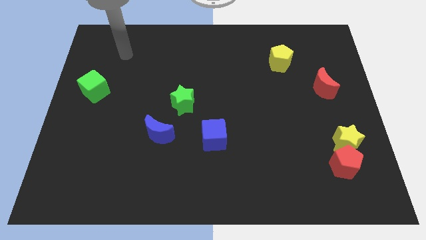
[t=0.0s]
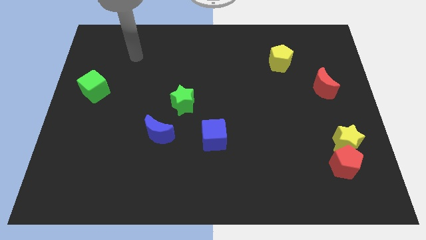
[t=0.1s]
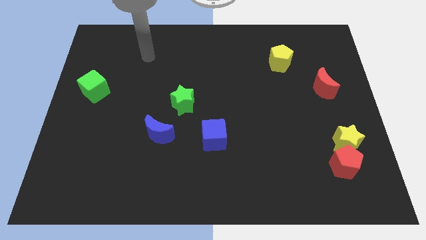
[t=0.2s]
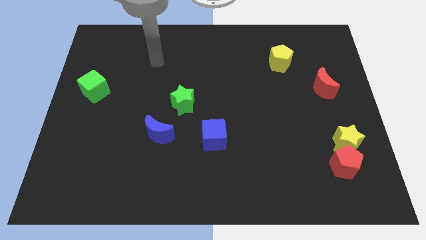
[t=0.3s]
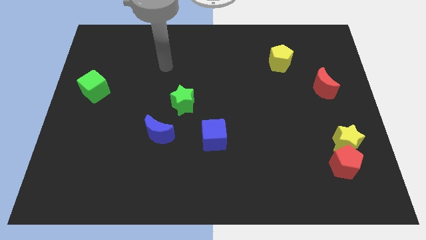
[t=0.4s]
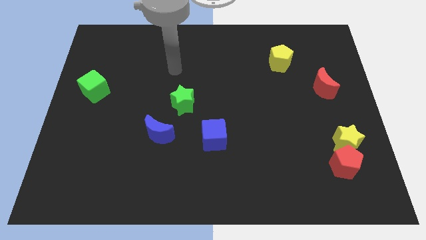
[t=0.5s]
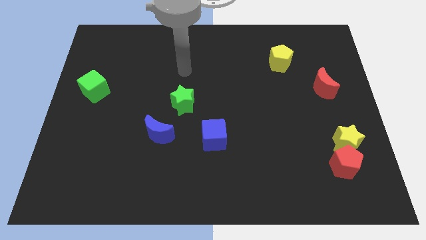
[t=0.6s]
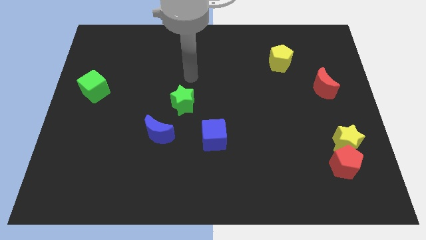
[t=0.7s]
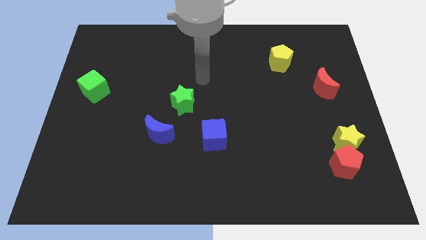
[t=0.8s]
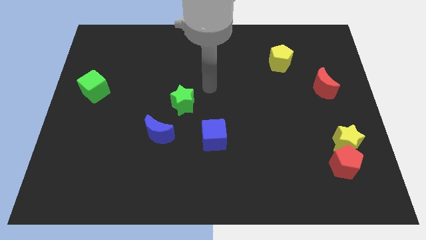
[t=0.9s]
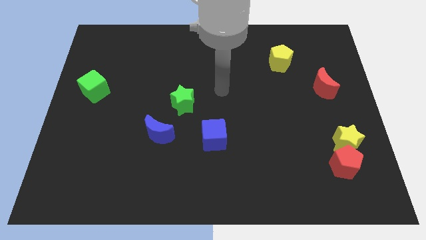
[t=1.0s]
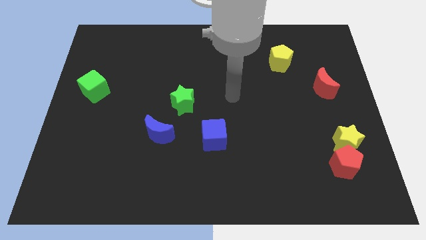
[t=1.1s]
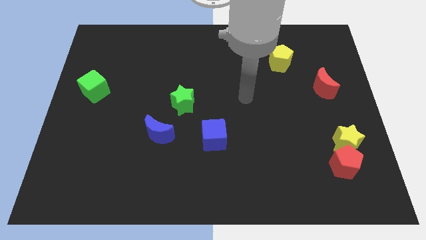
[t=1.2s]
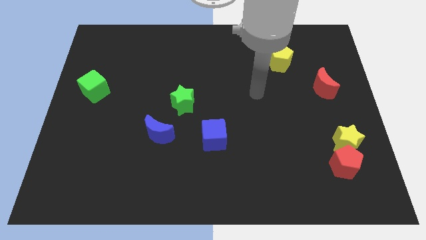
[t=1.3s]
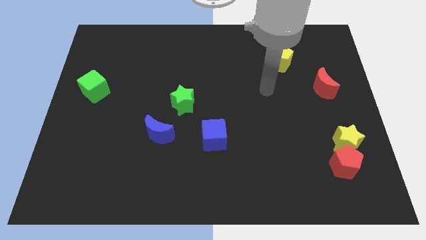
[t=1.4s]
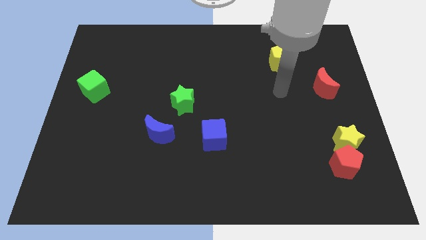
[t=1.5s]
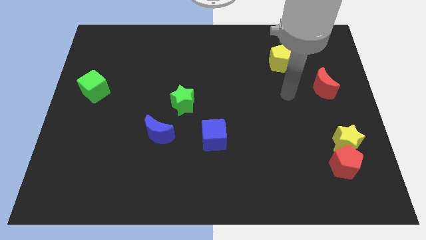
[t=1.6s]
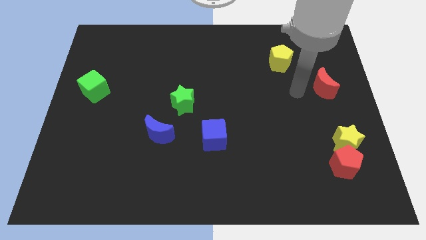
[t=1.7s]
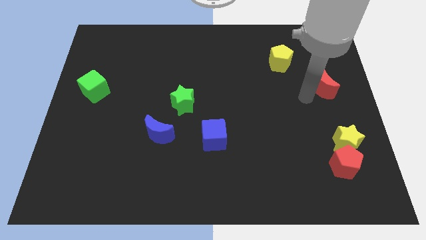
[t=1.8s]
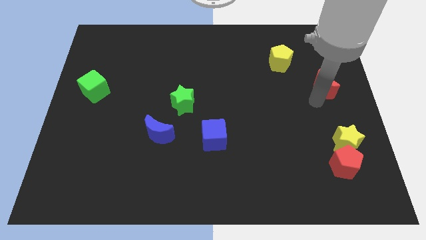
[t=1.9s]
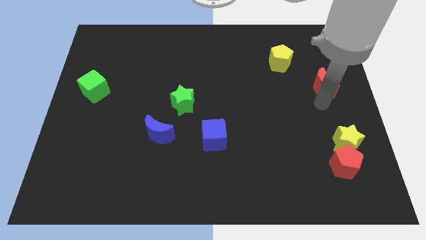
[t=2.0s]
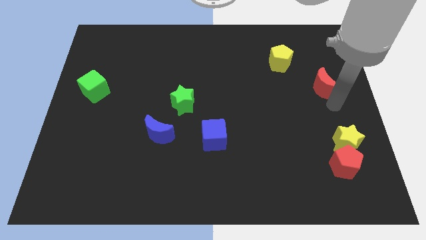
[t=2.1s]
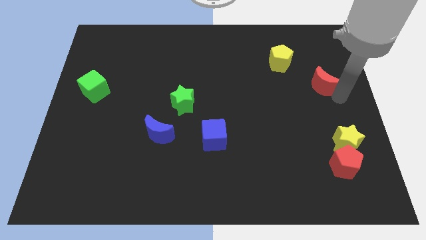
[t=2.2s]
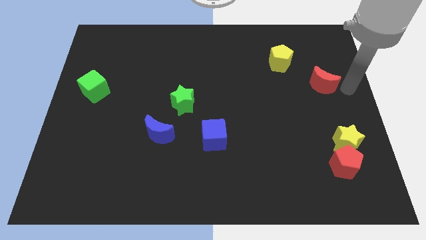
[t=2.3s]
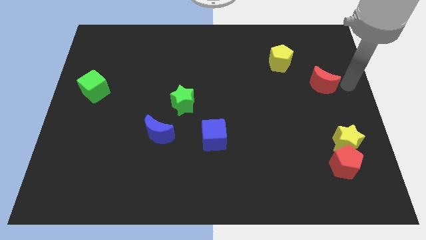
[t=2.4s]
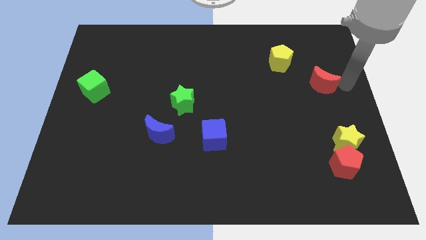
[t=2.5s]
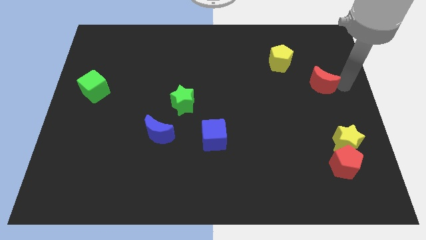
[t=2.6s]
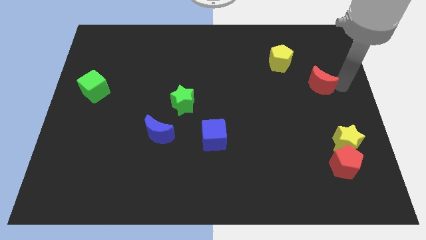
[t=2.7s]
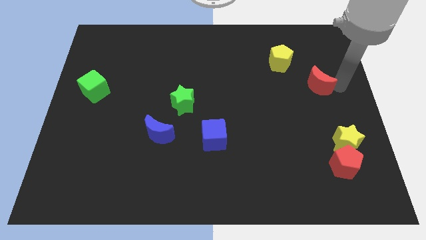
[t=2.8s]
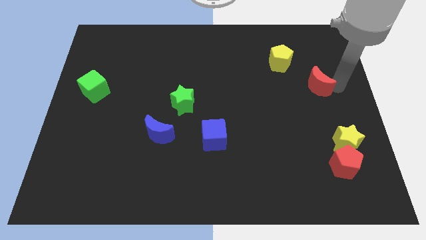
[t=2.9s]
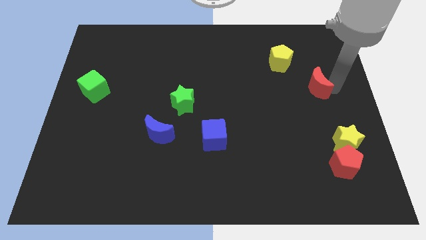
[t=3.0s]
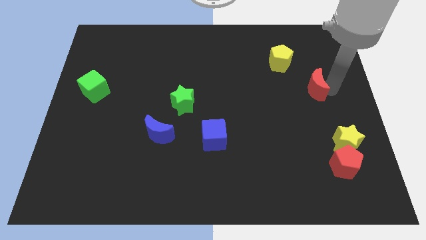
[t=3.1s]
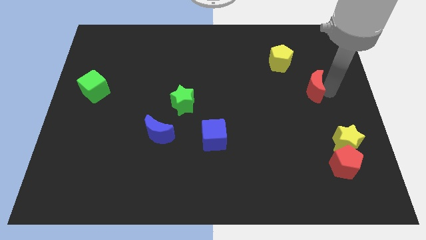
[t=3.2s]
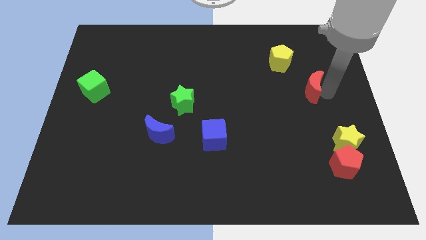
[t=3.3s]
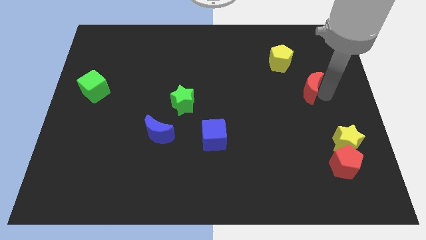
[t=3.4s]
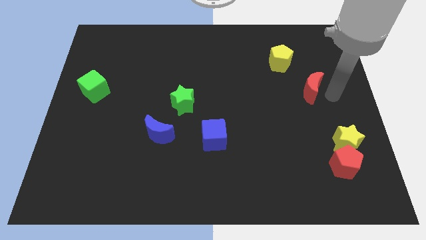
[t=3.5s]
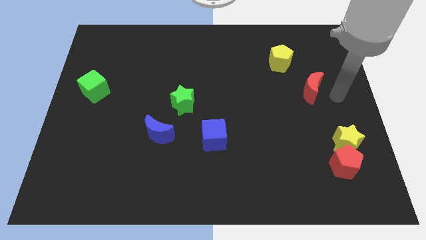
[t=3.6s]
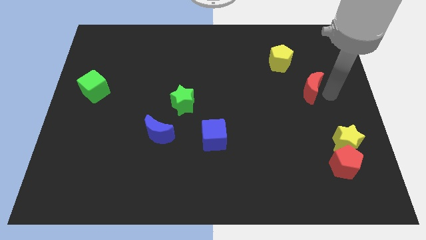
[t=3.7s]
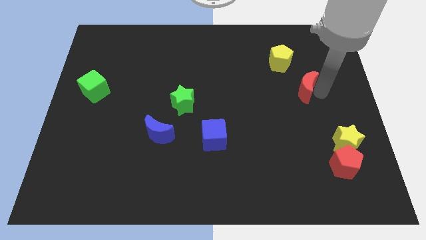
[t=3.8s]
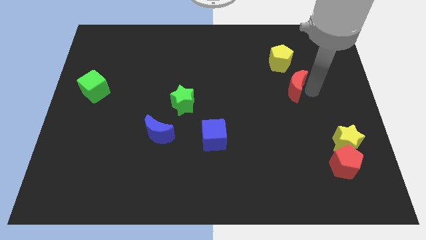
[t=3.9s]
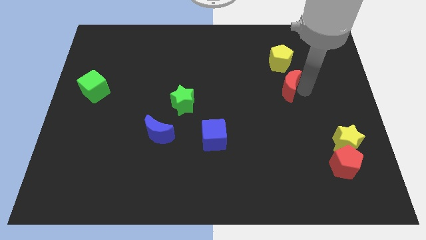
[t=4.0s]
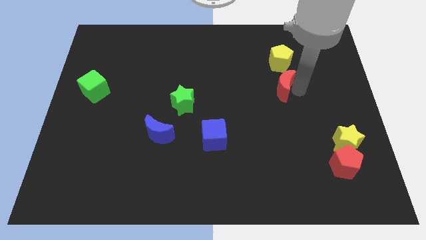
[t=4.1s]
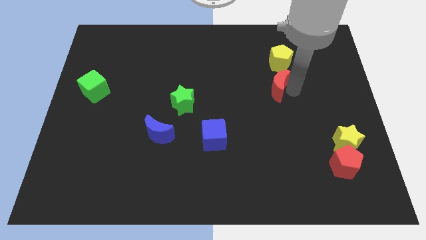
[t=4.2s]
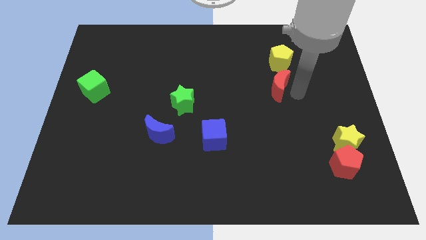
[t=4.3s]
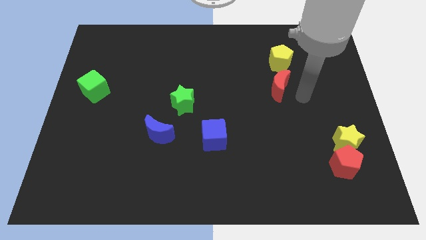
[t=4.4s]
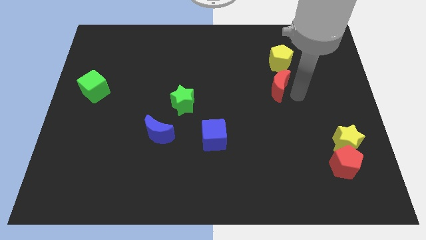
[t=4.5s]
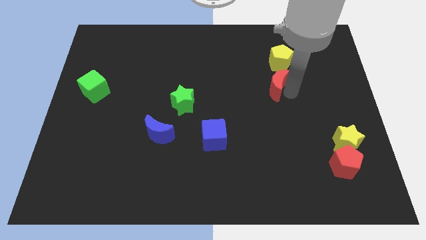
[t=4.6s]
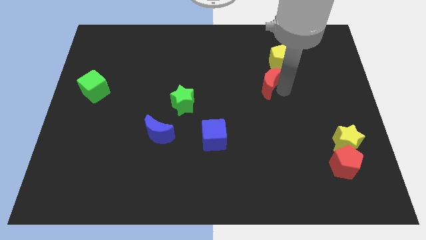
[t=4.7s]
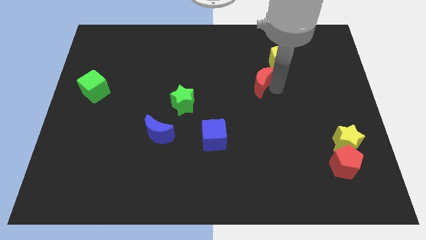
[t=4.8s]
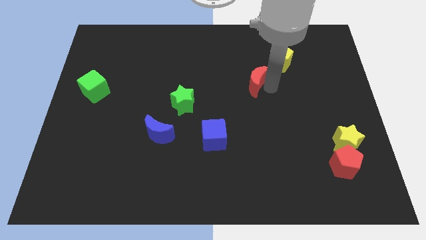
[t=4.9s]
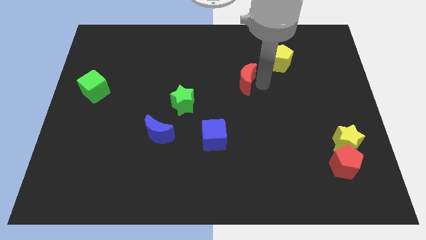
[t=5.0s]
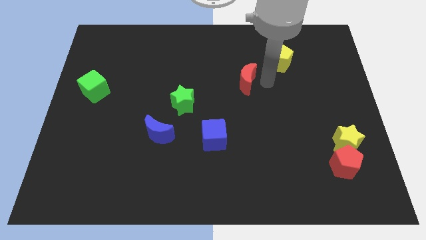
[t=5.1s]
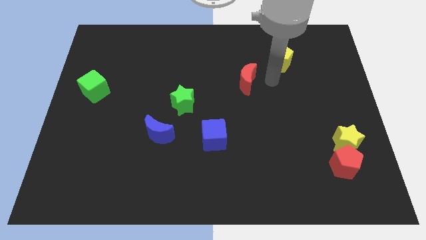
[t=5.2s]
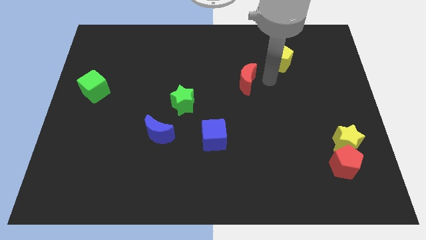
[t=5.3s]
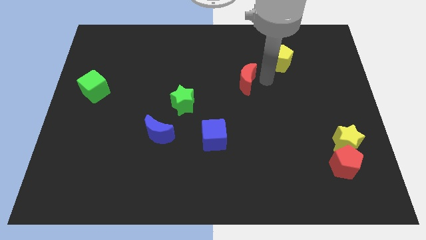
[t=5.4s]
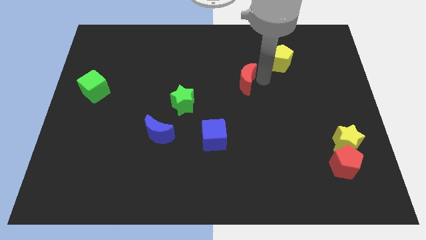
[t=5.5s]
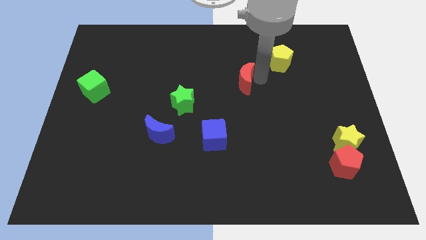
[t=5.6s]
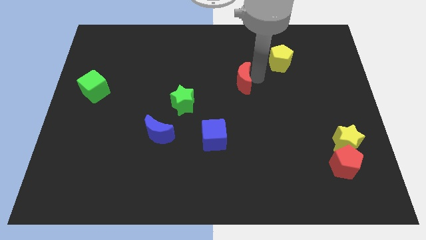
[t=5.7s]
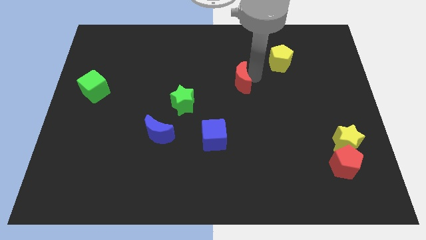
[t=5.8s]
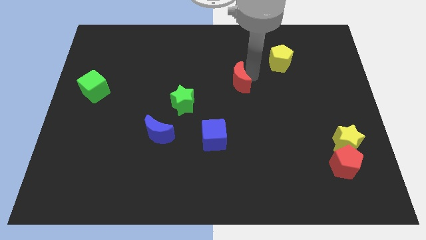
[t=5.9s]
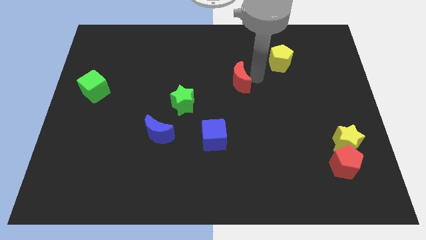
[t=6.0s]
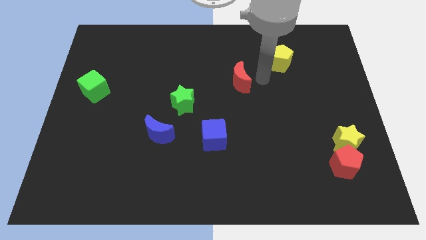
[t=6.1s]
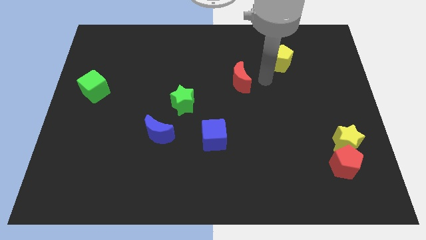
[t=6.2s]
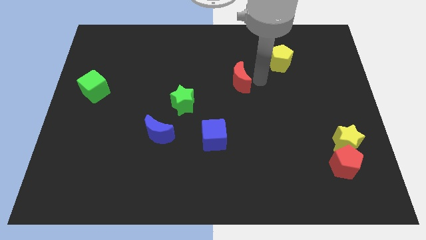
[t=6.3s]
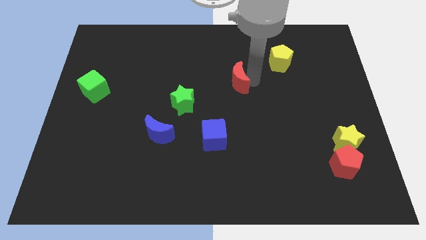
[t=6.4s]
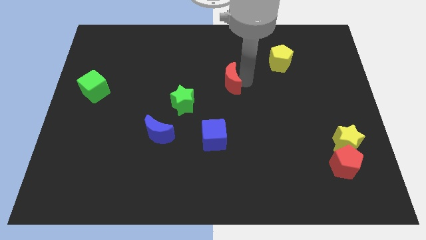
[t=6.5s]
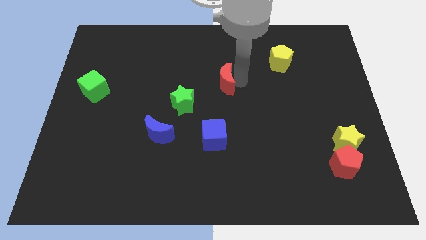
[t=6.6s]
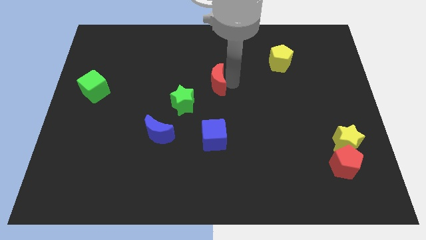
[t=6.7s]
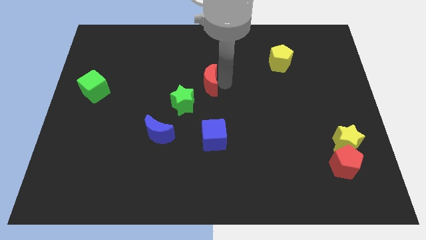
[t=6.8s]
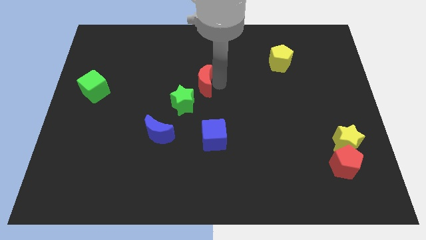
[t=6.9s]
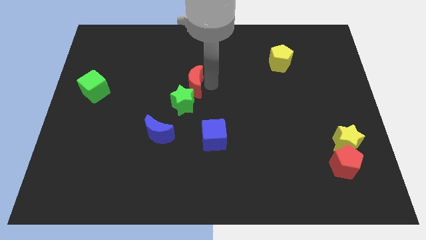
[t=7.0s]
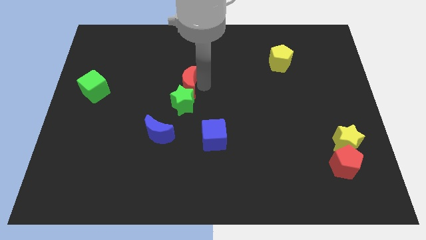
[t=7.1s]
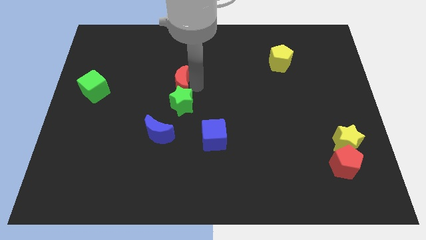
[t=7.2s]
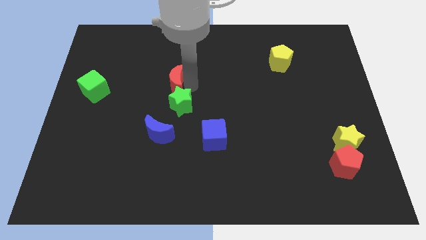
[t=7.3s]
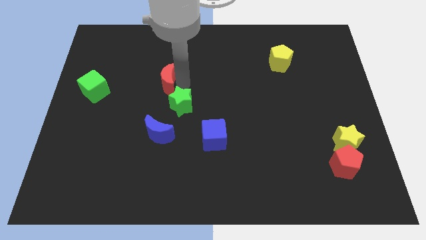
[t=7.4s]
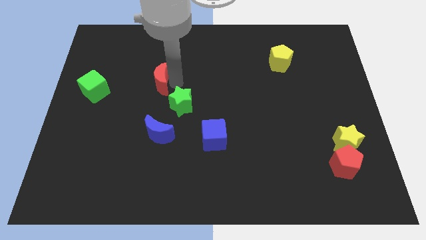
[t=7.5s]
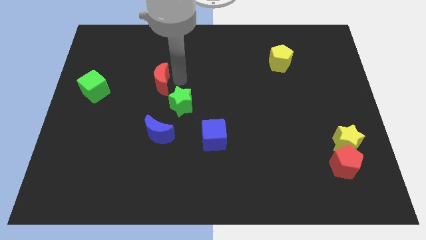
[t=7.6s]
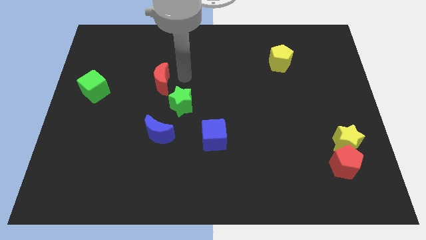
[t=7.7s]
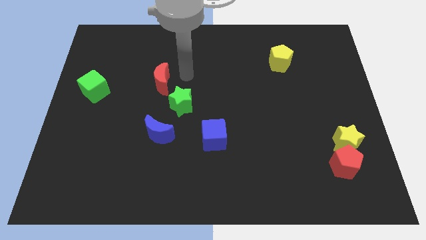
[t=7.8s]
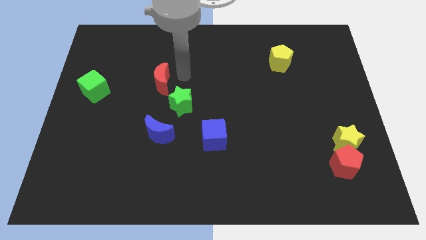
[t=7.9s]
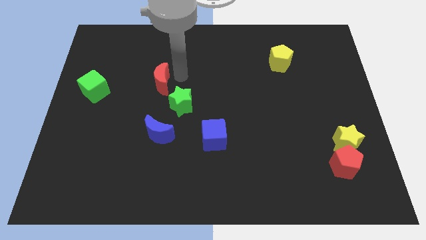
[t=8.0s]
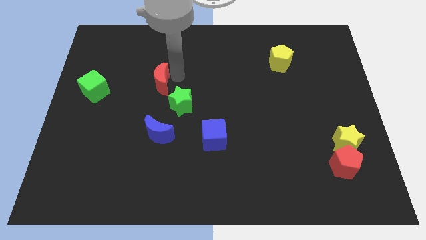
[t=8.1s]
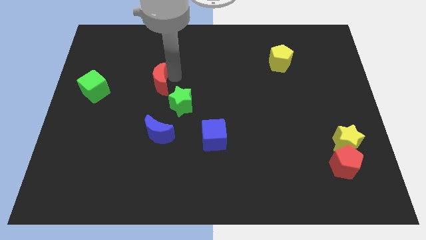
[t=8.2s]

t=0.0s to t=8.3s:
move the red moon to the right side of the green cube
